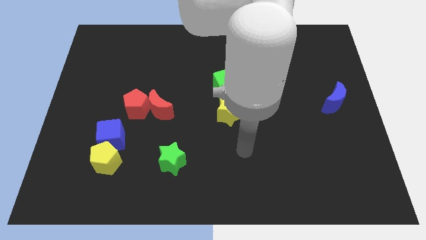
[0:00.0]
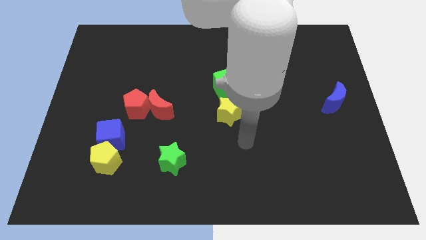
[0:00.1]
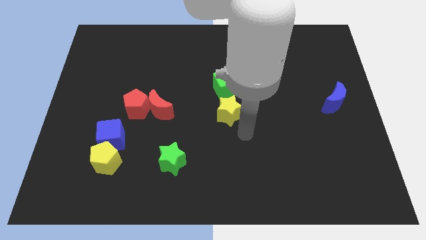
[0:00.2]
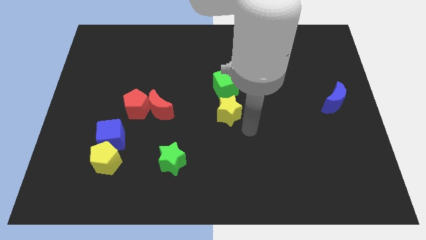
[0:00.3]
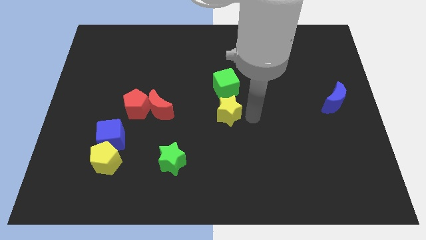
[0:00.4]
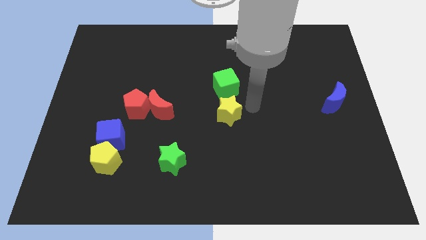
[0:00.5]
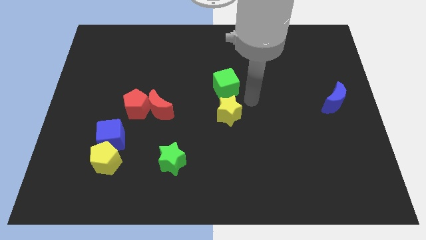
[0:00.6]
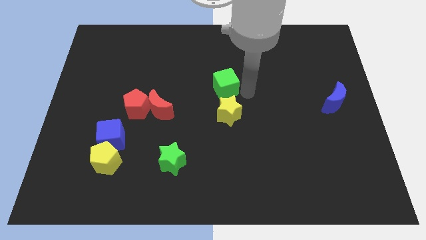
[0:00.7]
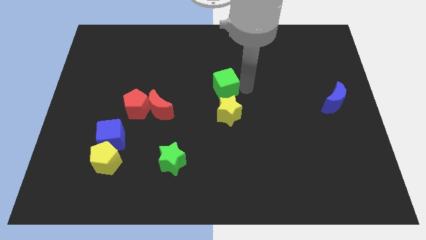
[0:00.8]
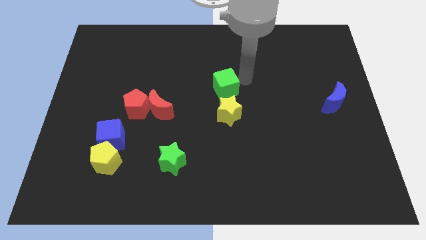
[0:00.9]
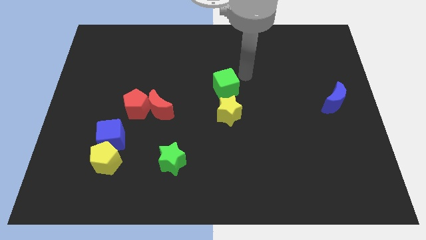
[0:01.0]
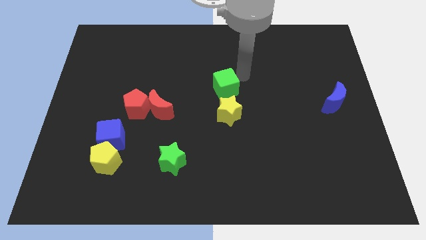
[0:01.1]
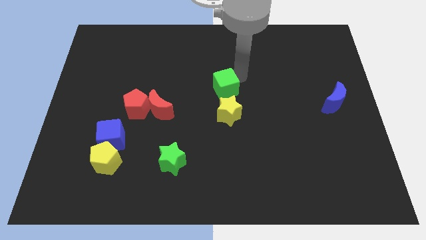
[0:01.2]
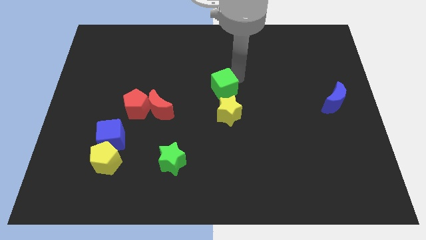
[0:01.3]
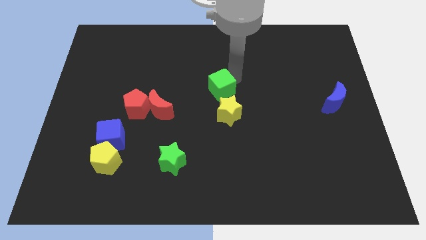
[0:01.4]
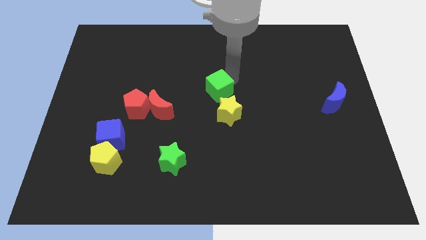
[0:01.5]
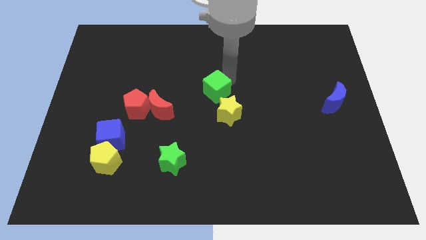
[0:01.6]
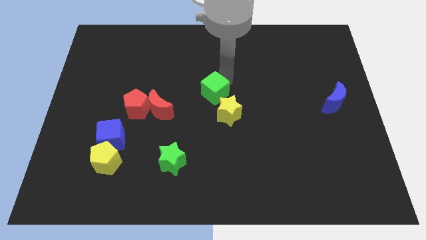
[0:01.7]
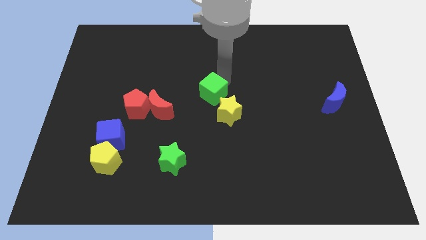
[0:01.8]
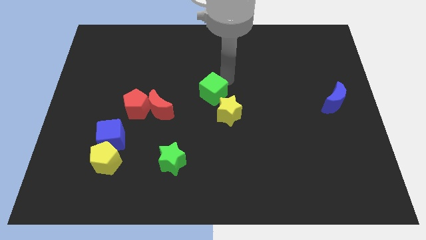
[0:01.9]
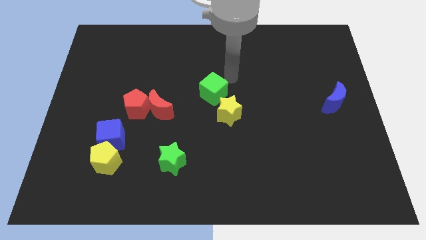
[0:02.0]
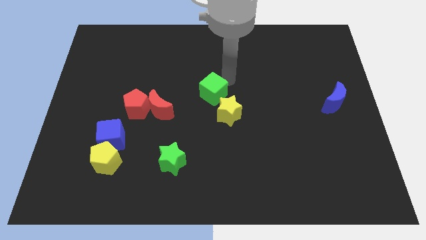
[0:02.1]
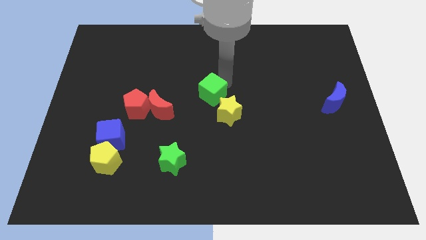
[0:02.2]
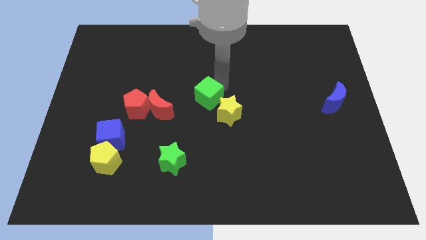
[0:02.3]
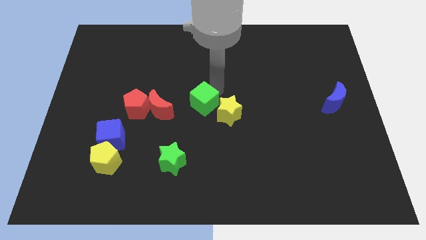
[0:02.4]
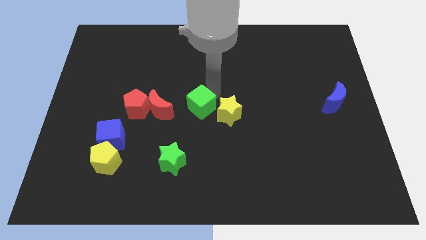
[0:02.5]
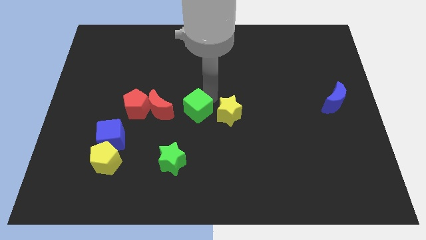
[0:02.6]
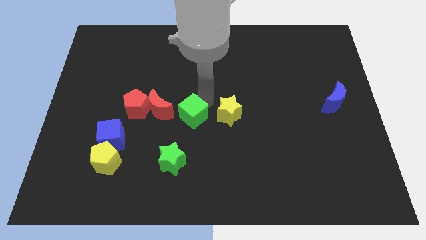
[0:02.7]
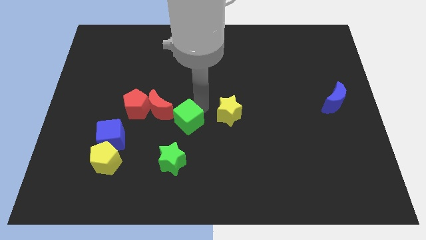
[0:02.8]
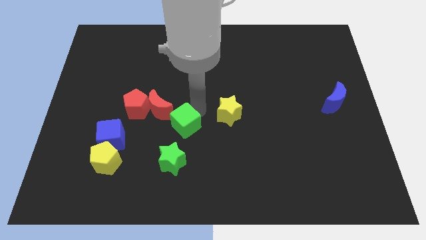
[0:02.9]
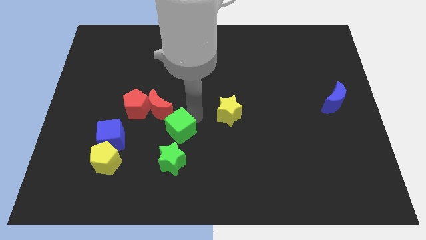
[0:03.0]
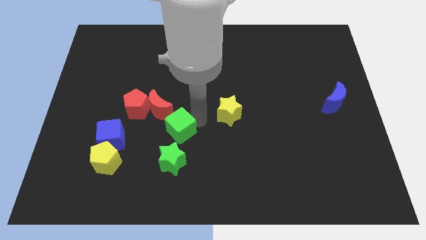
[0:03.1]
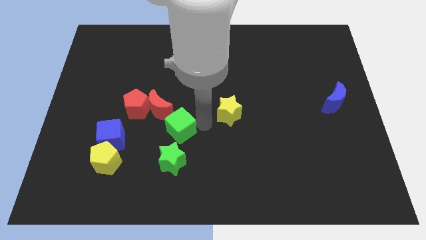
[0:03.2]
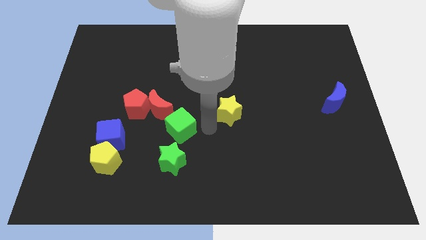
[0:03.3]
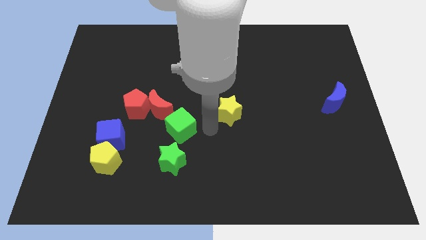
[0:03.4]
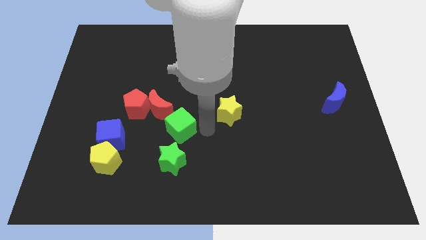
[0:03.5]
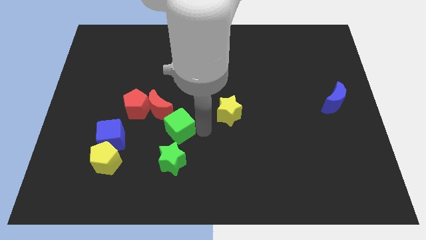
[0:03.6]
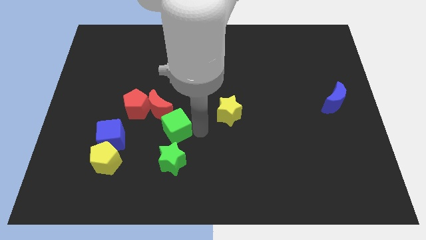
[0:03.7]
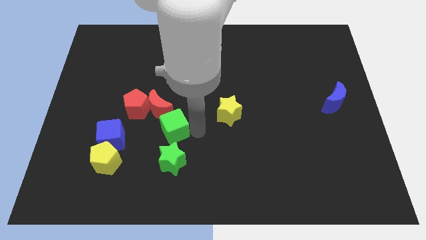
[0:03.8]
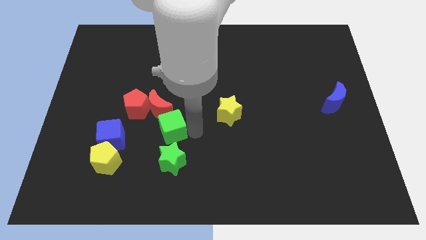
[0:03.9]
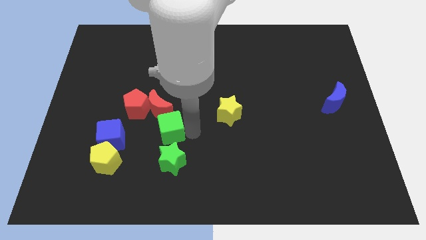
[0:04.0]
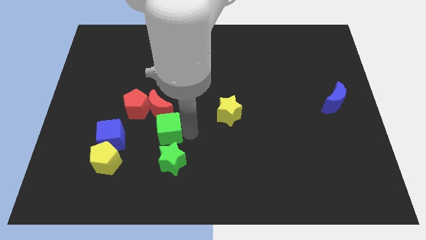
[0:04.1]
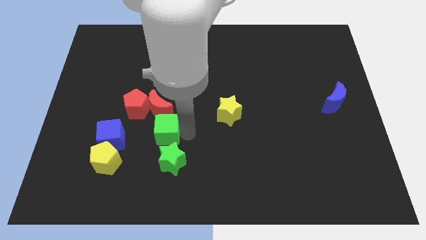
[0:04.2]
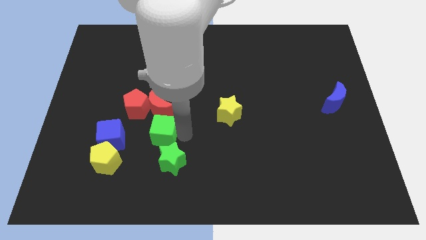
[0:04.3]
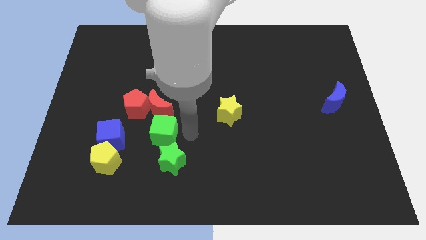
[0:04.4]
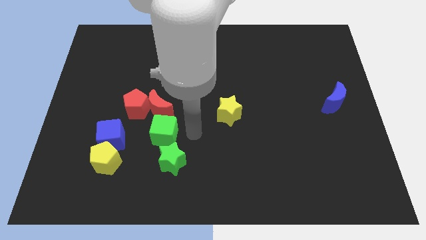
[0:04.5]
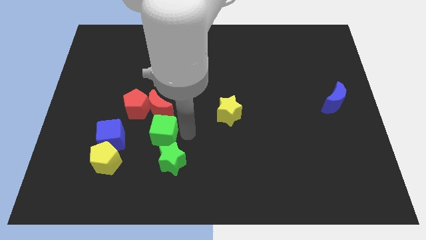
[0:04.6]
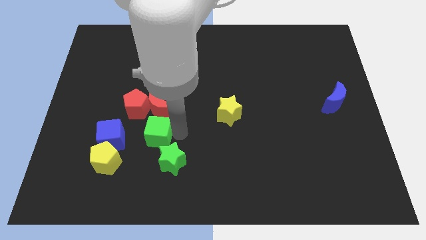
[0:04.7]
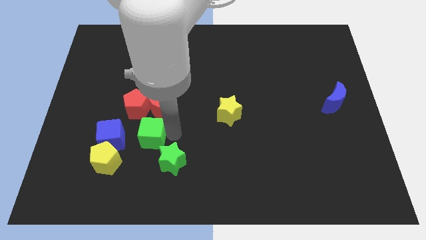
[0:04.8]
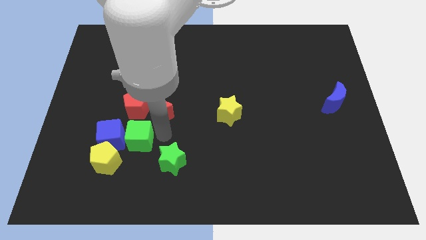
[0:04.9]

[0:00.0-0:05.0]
slide the green cube towards the blue cube

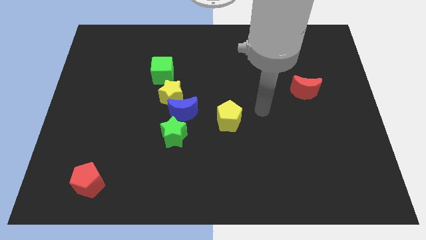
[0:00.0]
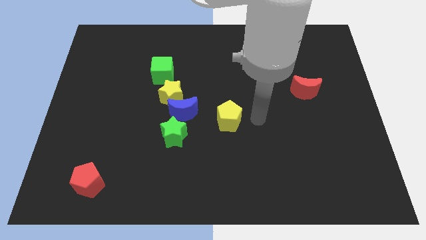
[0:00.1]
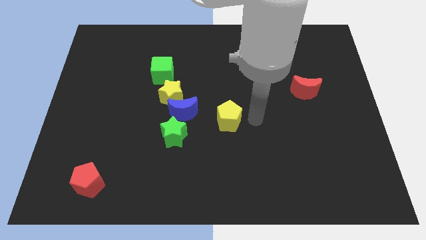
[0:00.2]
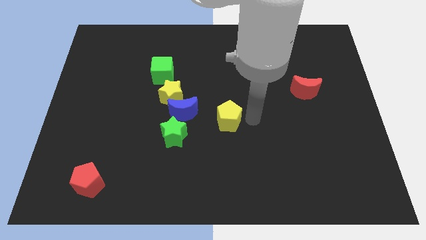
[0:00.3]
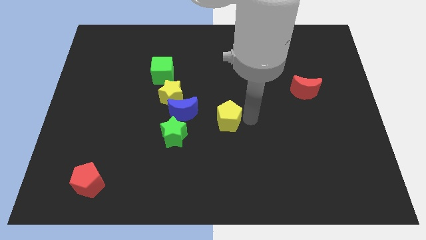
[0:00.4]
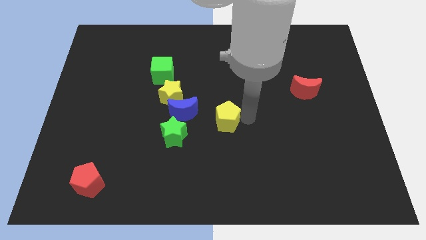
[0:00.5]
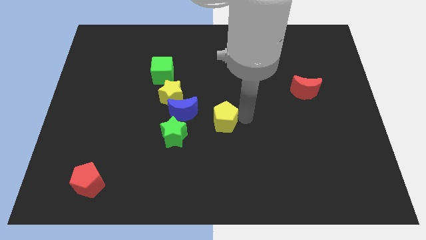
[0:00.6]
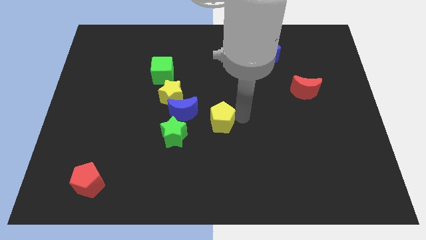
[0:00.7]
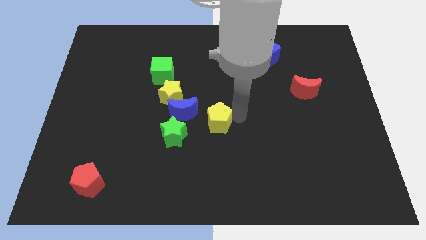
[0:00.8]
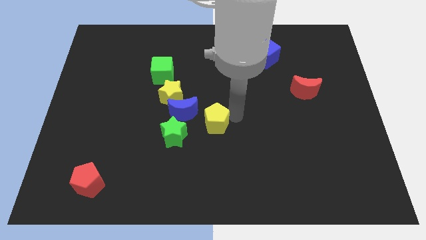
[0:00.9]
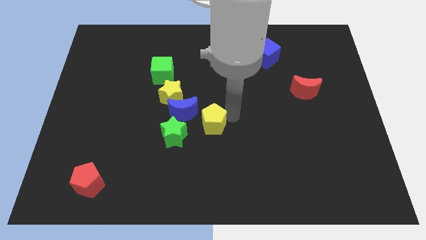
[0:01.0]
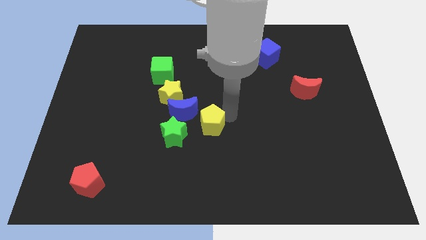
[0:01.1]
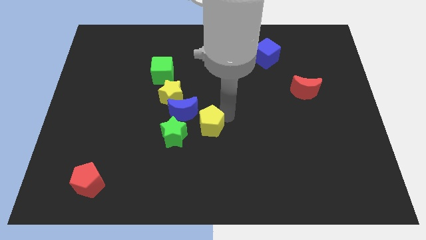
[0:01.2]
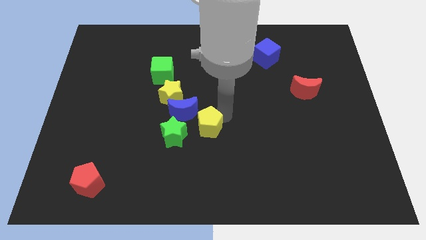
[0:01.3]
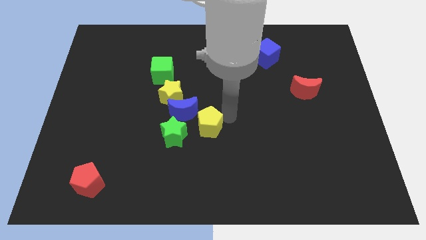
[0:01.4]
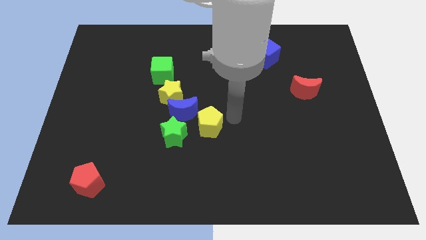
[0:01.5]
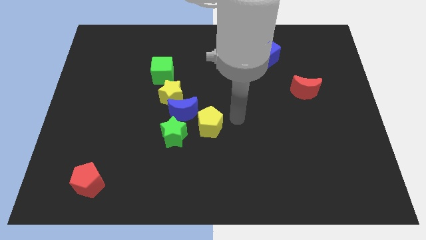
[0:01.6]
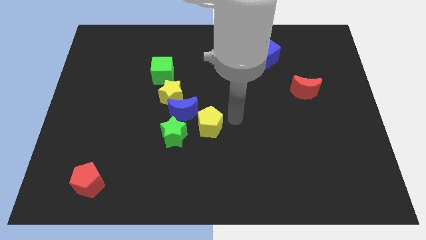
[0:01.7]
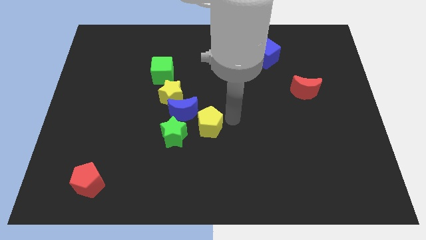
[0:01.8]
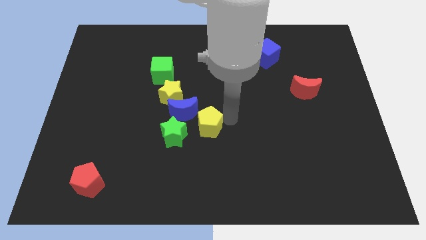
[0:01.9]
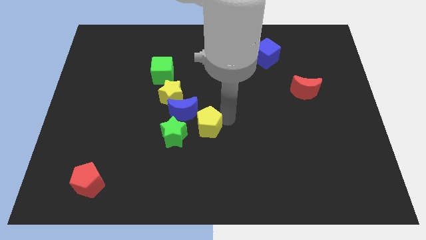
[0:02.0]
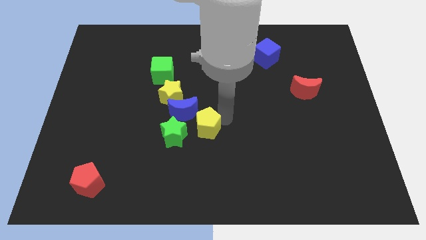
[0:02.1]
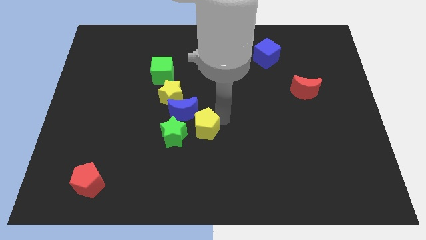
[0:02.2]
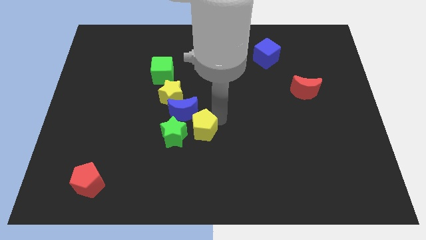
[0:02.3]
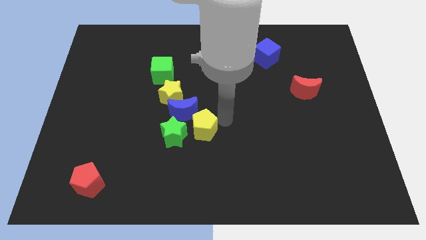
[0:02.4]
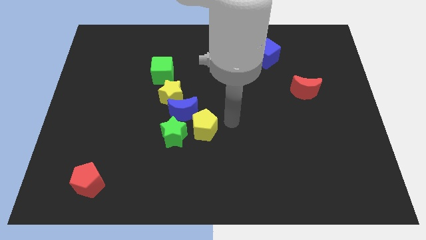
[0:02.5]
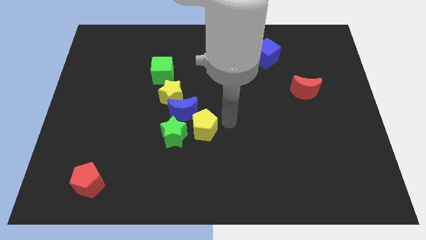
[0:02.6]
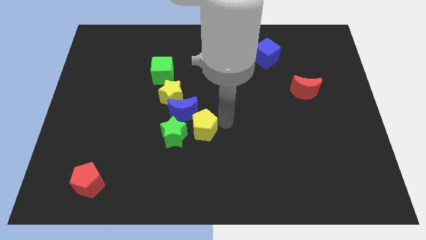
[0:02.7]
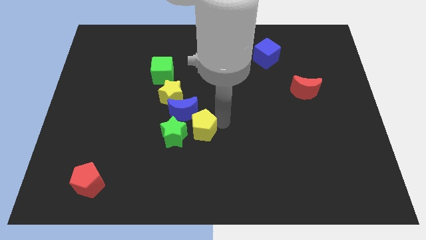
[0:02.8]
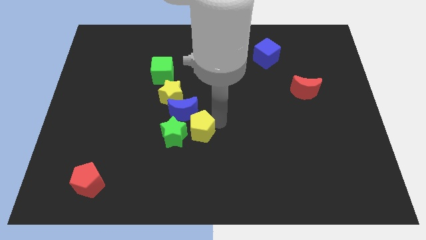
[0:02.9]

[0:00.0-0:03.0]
put the yellow pentagon next to the green star
